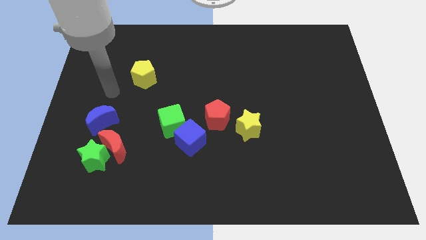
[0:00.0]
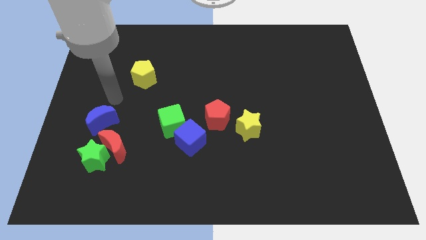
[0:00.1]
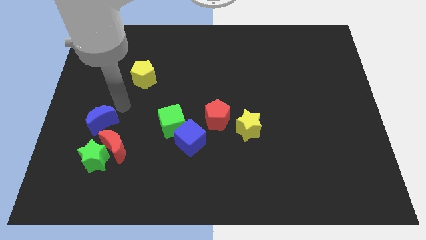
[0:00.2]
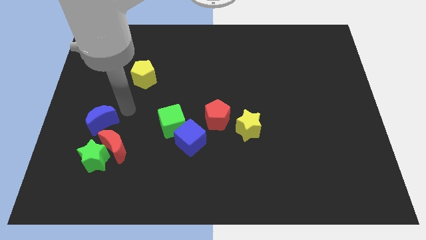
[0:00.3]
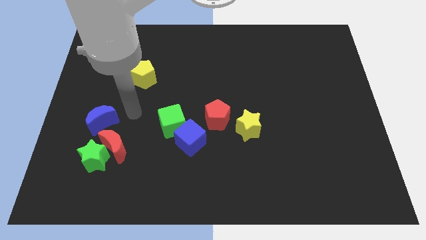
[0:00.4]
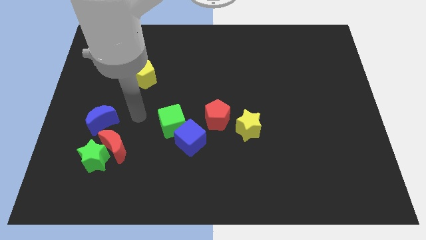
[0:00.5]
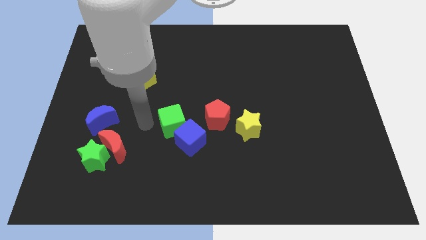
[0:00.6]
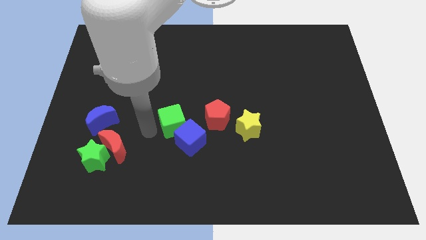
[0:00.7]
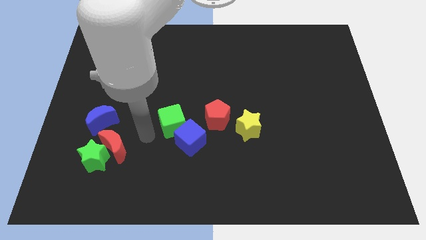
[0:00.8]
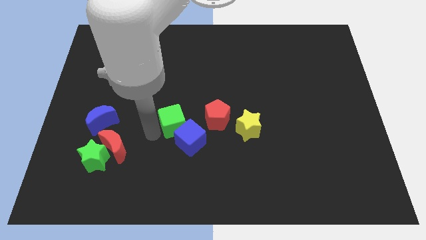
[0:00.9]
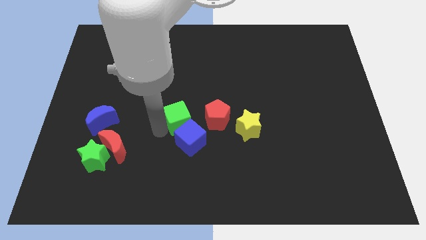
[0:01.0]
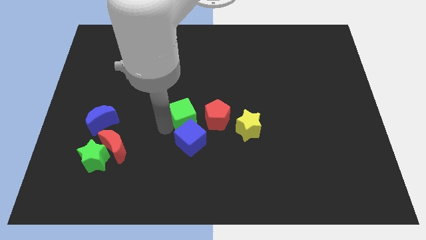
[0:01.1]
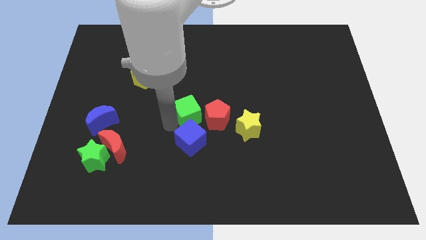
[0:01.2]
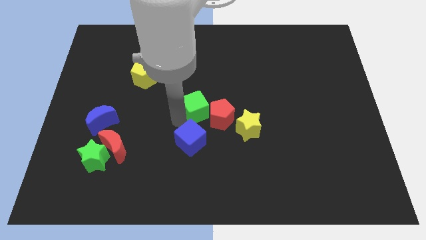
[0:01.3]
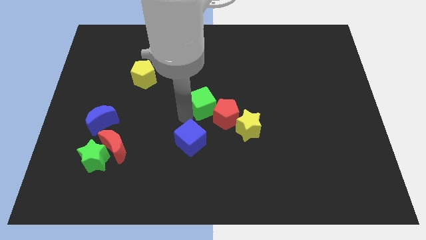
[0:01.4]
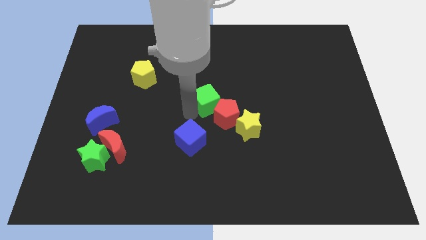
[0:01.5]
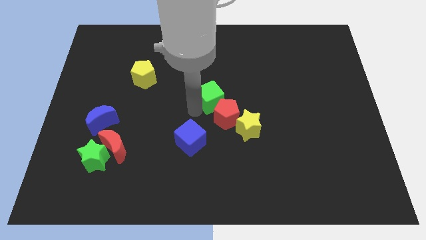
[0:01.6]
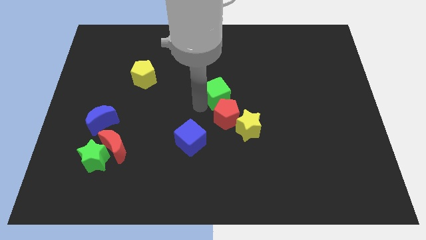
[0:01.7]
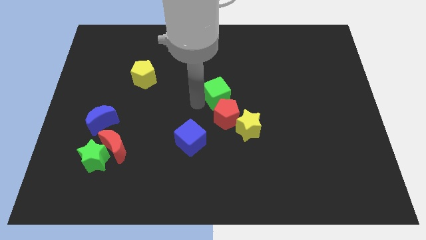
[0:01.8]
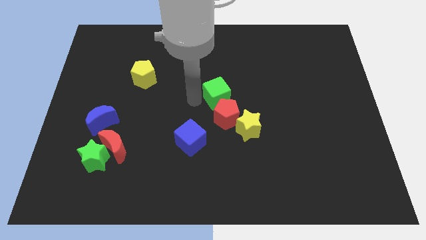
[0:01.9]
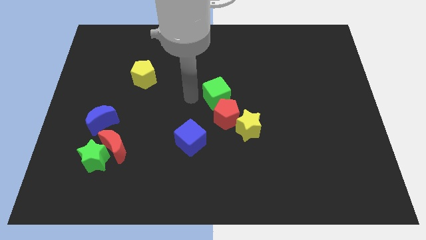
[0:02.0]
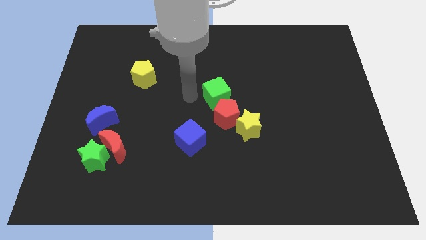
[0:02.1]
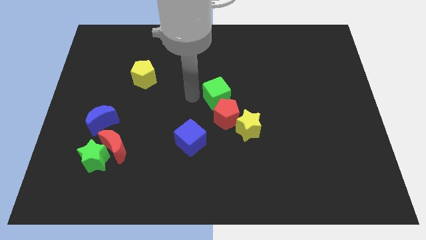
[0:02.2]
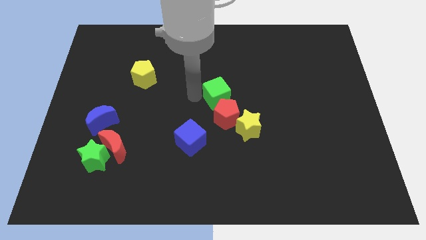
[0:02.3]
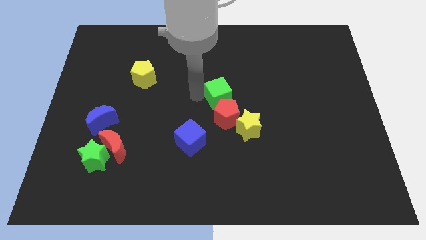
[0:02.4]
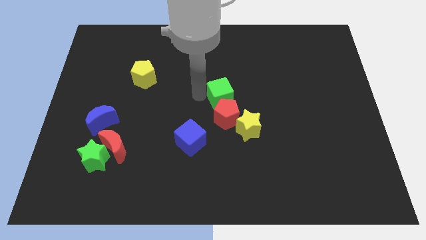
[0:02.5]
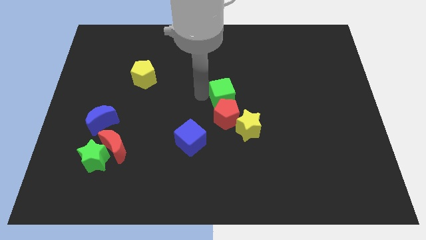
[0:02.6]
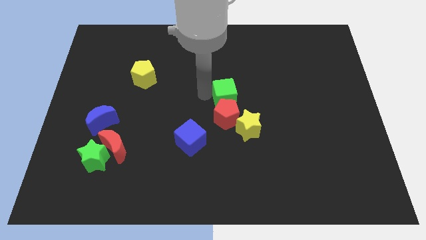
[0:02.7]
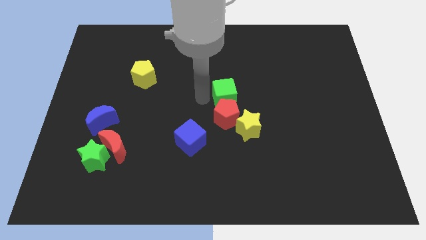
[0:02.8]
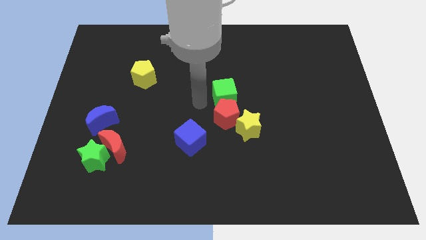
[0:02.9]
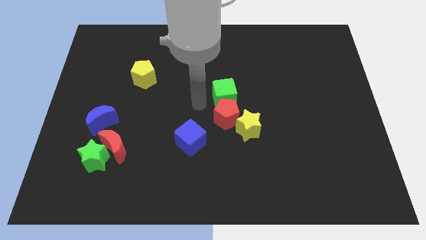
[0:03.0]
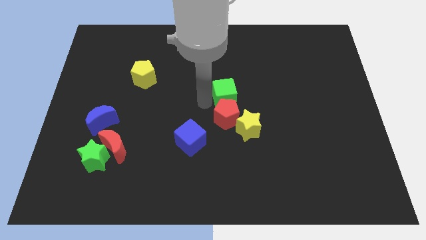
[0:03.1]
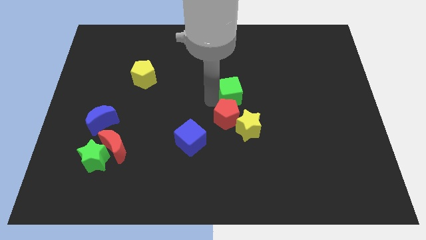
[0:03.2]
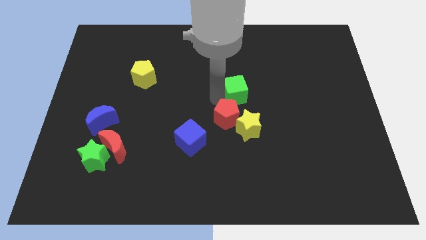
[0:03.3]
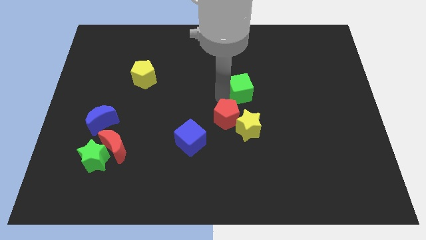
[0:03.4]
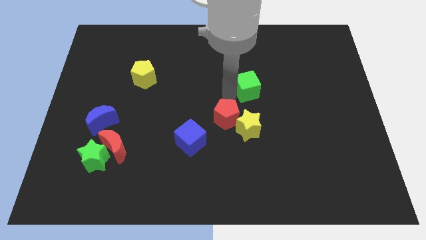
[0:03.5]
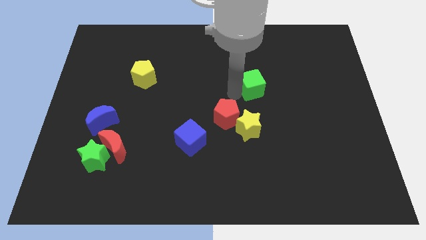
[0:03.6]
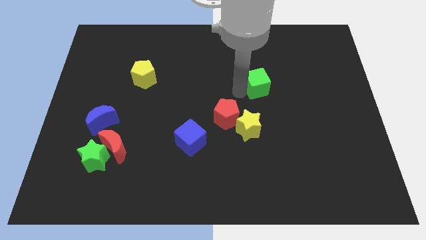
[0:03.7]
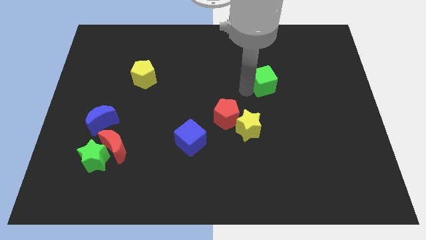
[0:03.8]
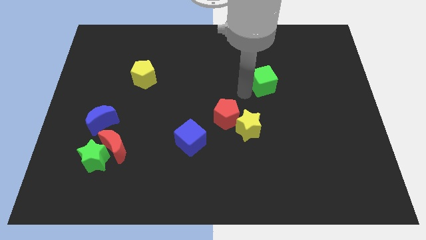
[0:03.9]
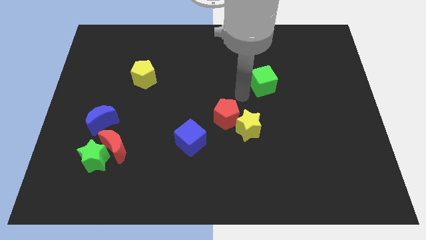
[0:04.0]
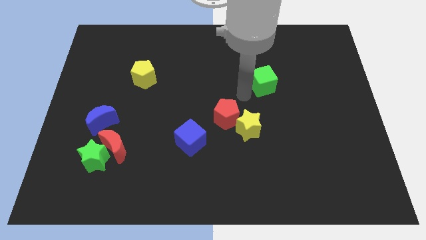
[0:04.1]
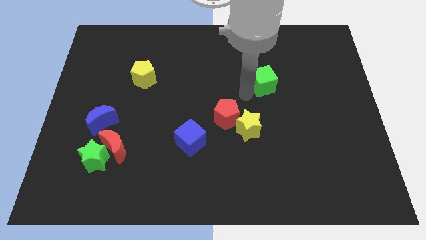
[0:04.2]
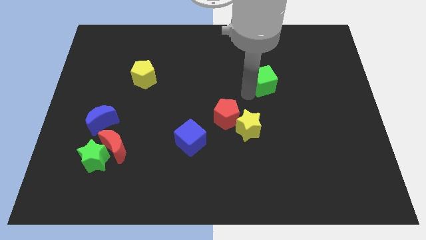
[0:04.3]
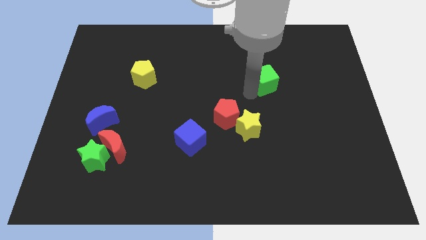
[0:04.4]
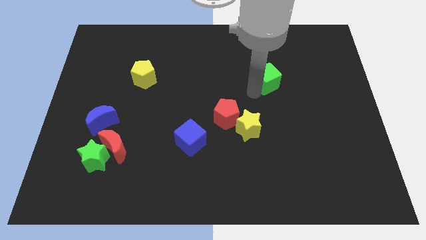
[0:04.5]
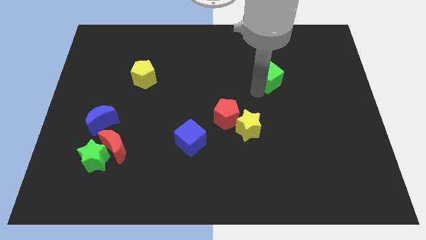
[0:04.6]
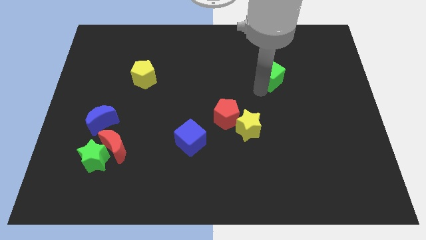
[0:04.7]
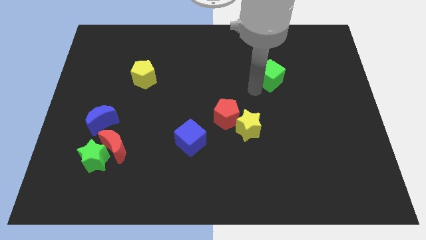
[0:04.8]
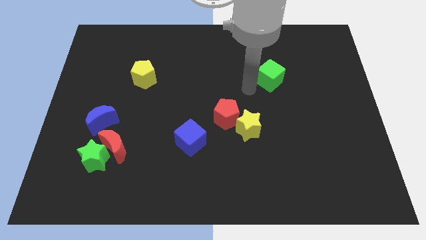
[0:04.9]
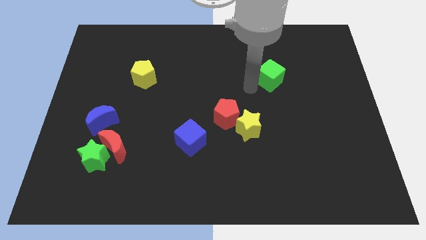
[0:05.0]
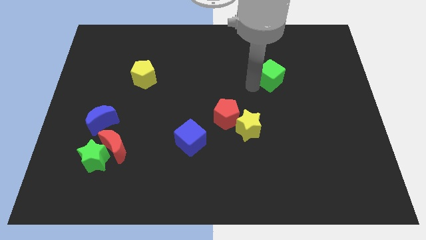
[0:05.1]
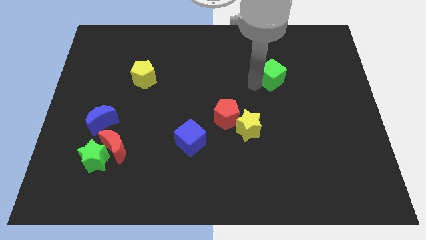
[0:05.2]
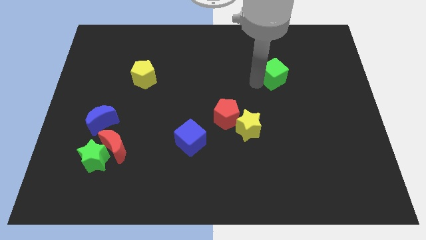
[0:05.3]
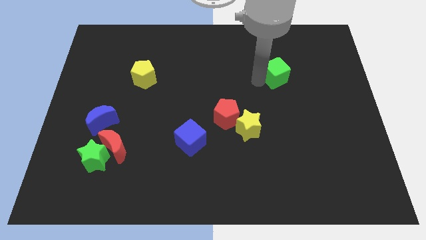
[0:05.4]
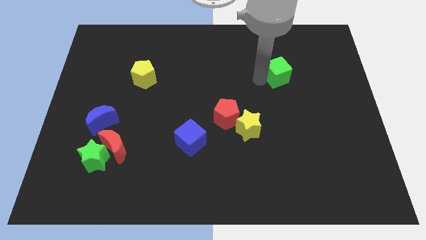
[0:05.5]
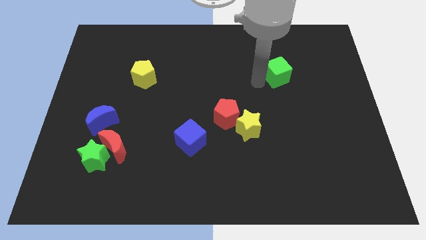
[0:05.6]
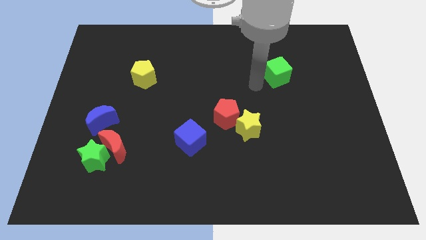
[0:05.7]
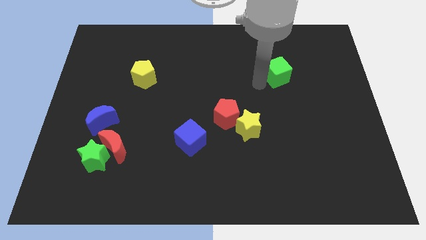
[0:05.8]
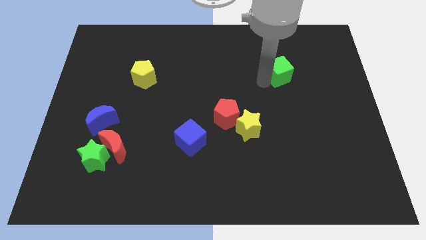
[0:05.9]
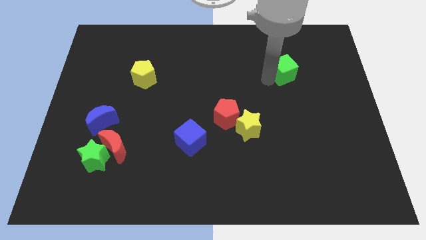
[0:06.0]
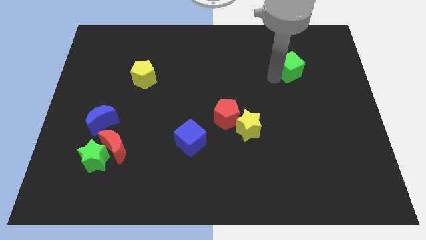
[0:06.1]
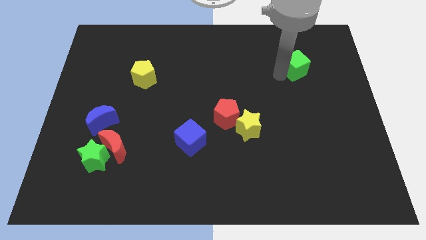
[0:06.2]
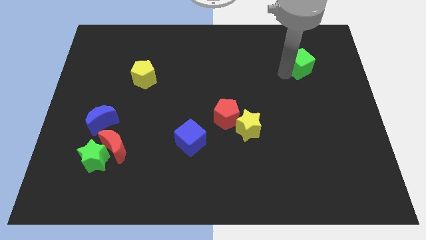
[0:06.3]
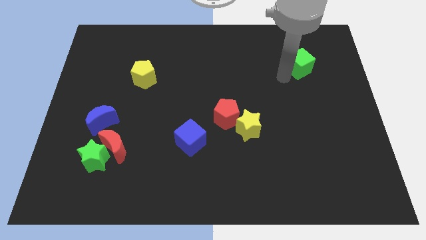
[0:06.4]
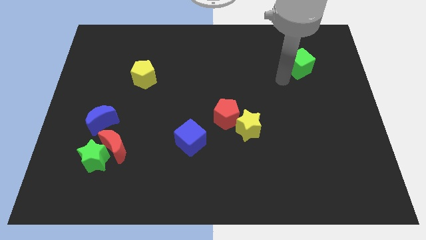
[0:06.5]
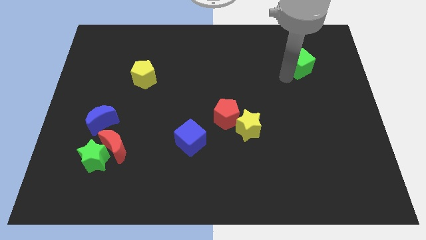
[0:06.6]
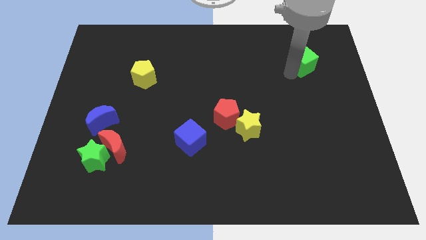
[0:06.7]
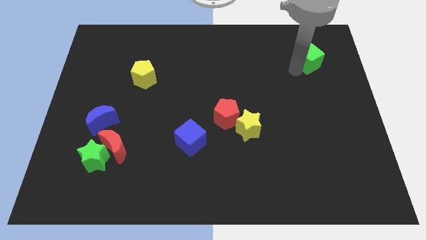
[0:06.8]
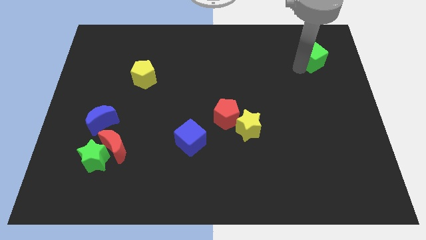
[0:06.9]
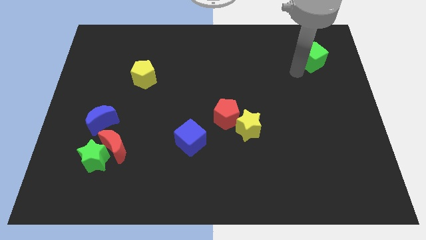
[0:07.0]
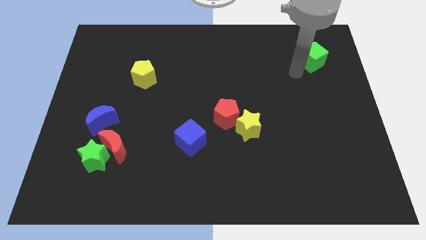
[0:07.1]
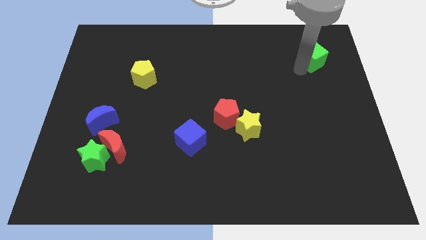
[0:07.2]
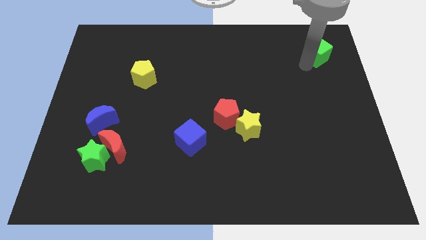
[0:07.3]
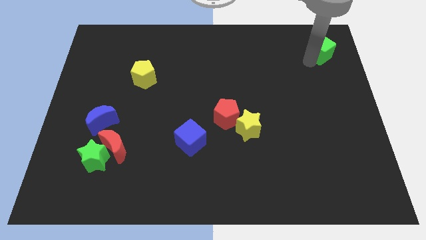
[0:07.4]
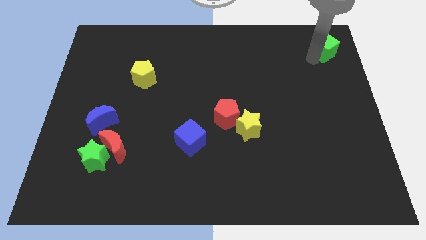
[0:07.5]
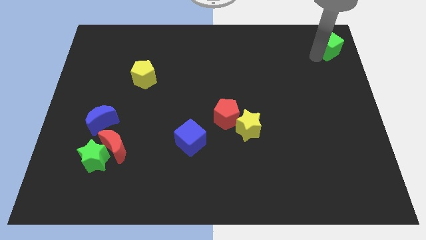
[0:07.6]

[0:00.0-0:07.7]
move the green cube to the top right of the board
